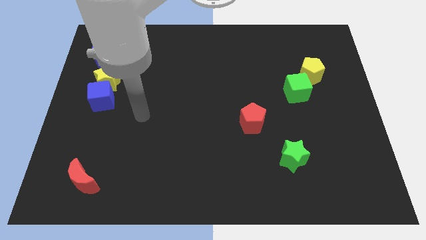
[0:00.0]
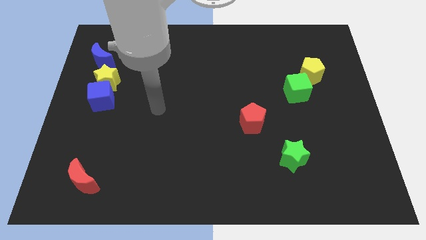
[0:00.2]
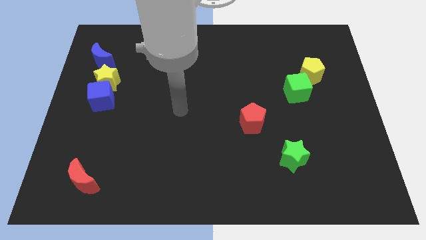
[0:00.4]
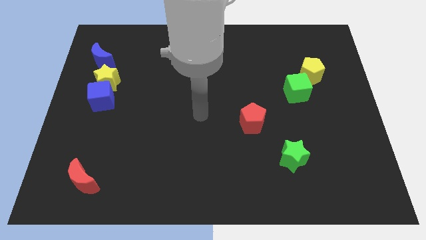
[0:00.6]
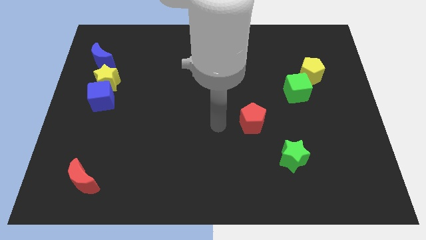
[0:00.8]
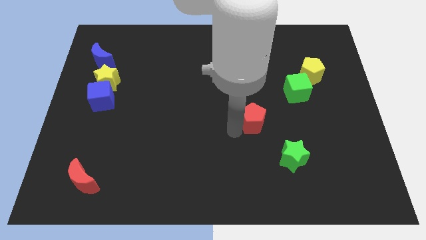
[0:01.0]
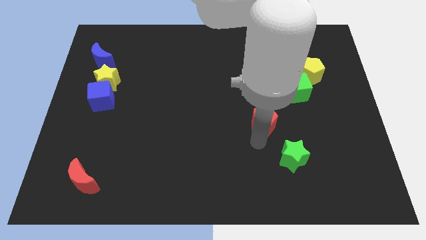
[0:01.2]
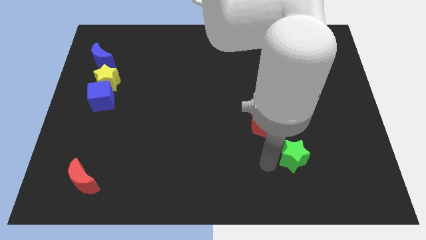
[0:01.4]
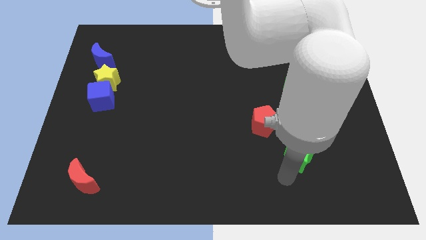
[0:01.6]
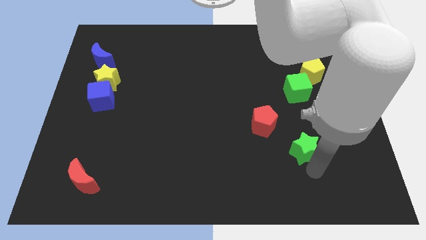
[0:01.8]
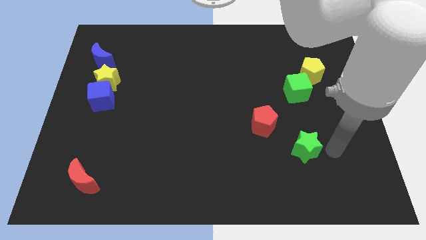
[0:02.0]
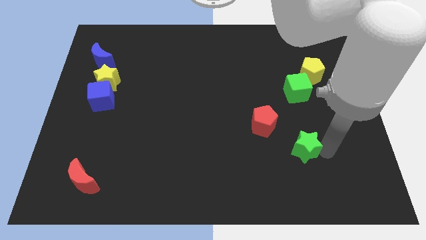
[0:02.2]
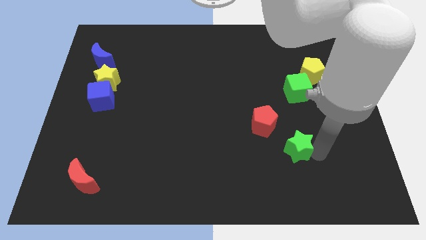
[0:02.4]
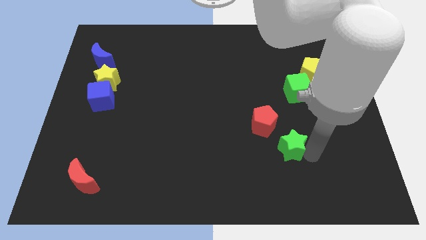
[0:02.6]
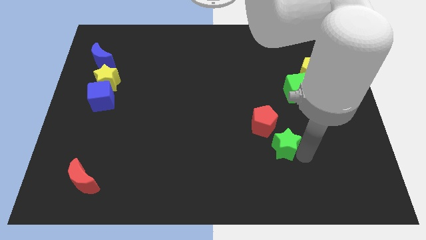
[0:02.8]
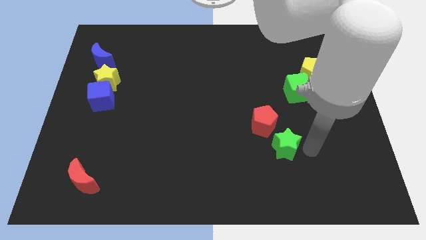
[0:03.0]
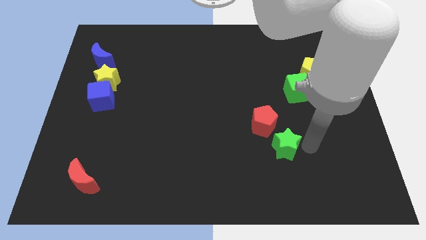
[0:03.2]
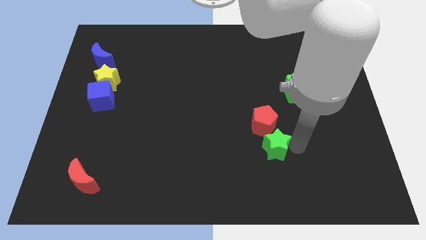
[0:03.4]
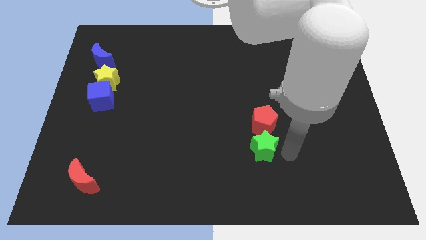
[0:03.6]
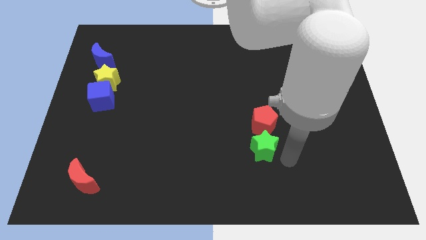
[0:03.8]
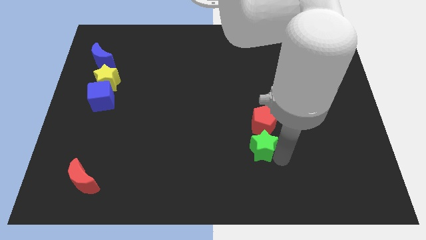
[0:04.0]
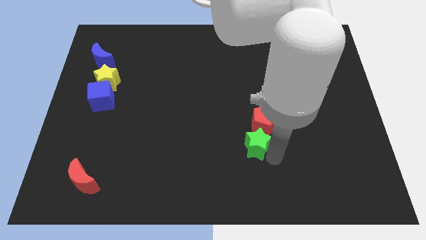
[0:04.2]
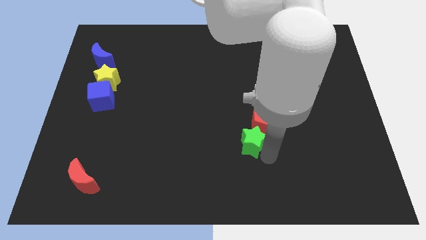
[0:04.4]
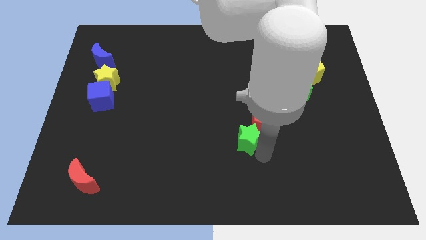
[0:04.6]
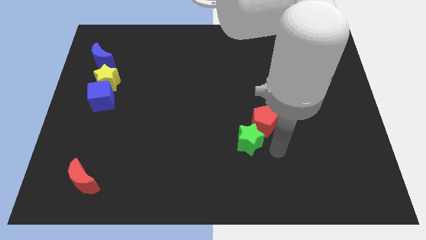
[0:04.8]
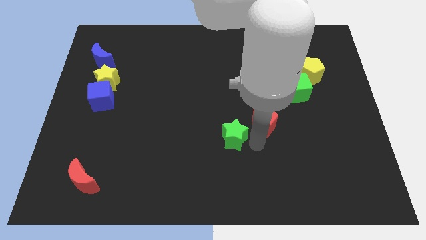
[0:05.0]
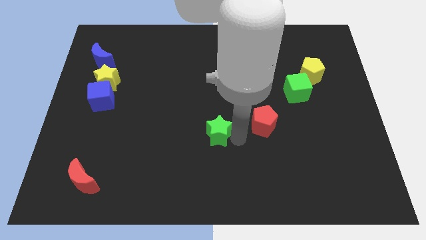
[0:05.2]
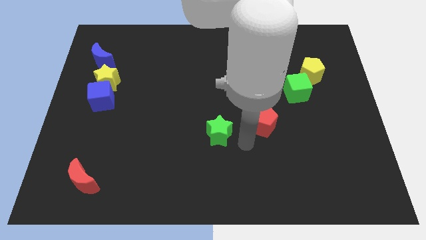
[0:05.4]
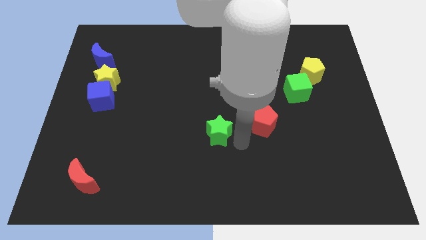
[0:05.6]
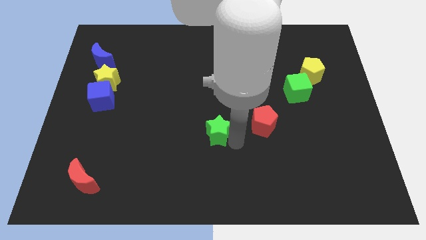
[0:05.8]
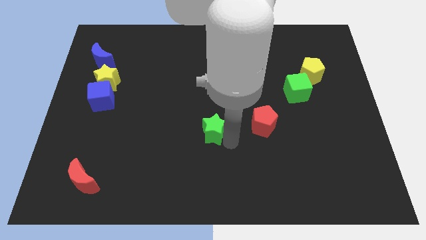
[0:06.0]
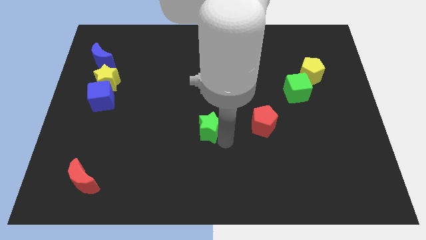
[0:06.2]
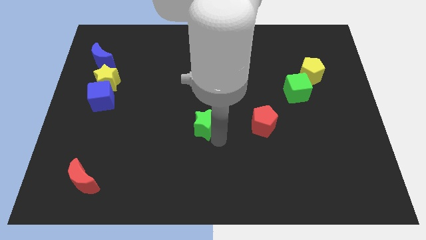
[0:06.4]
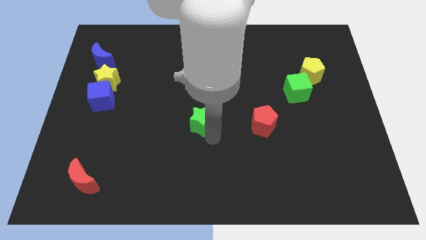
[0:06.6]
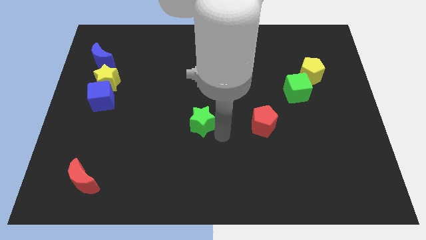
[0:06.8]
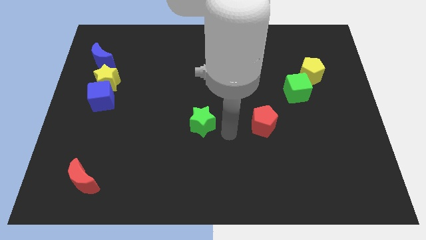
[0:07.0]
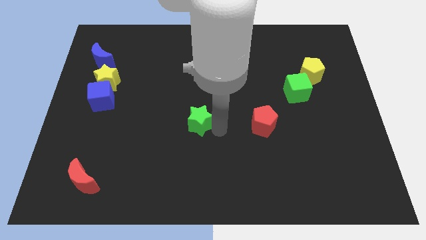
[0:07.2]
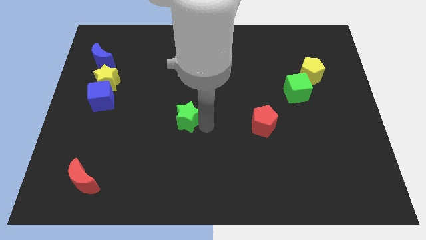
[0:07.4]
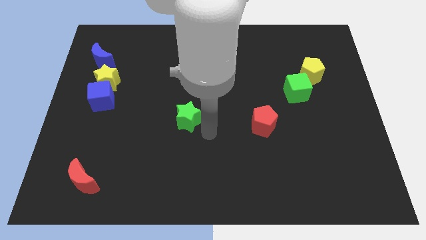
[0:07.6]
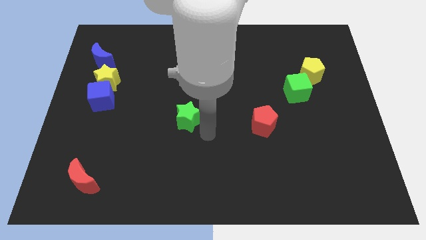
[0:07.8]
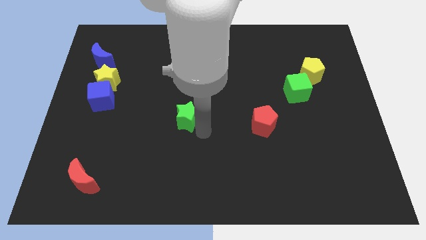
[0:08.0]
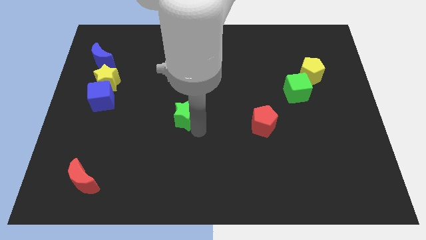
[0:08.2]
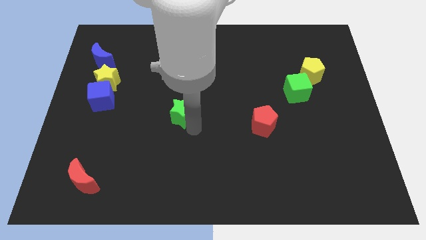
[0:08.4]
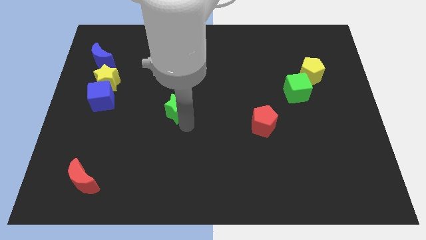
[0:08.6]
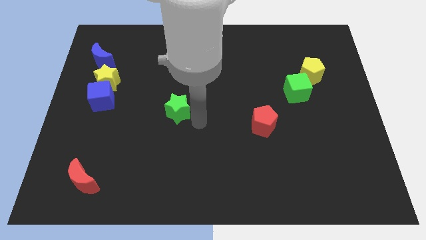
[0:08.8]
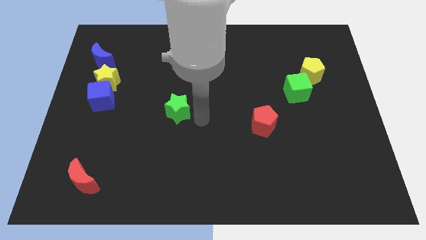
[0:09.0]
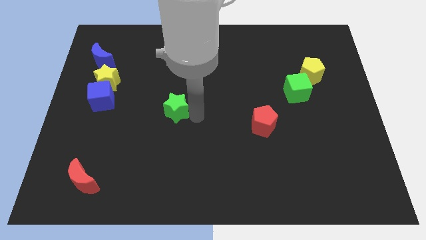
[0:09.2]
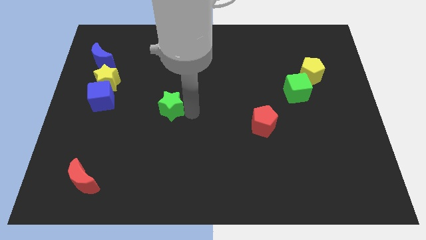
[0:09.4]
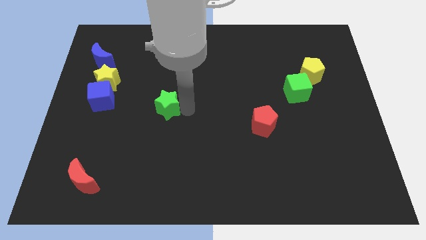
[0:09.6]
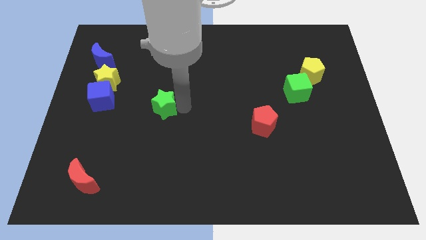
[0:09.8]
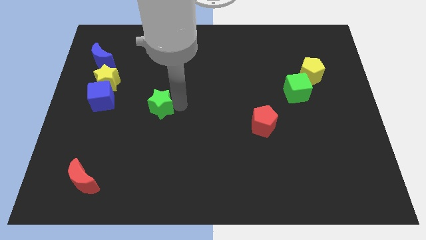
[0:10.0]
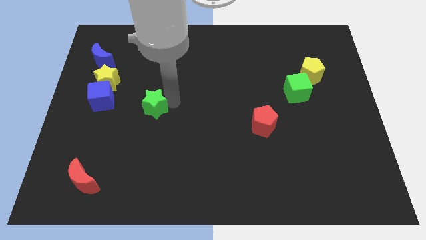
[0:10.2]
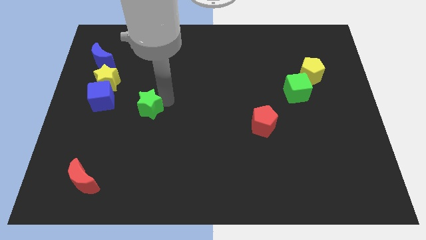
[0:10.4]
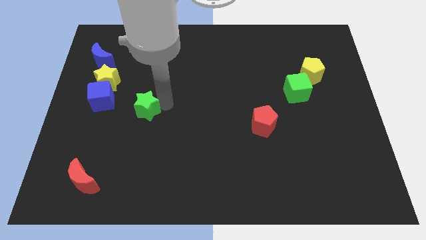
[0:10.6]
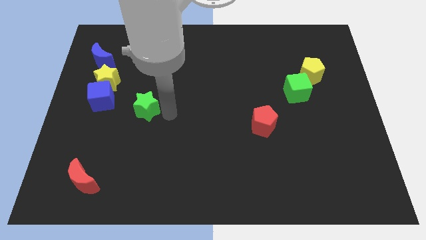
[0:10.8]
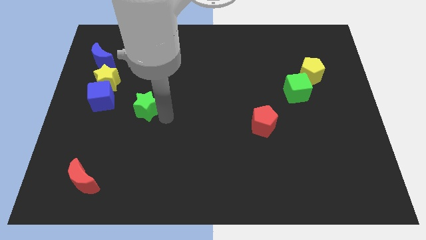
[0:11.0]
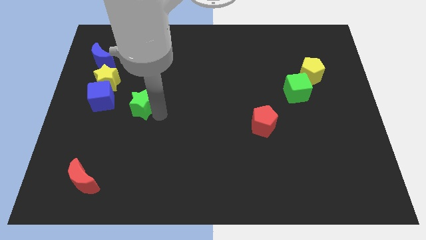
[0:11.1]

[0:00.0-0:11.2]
push the green star to the bottom right of the yellow star

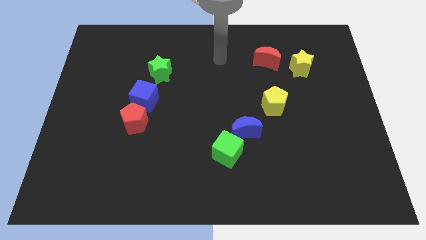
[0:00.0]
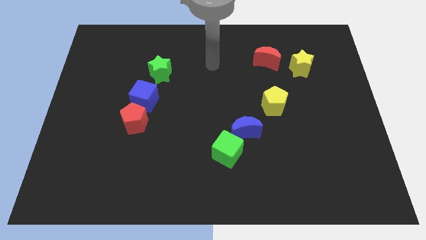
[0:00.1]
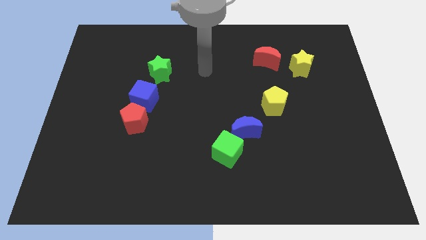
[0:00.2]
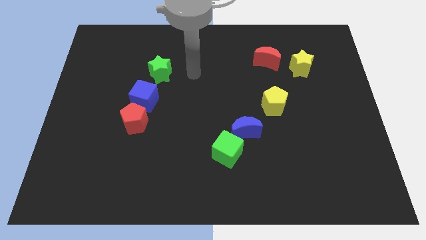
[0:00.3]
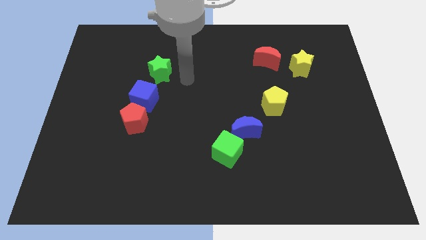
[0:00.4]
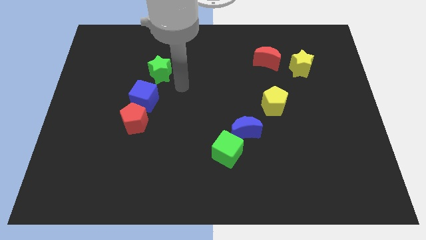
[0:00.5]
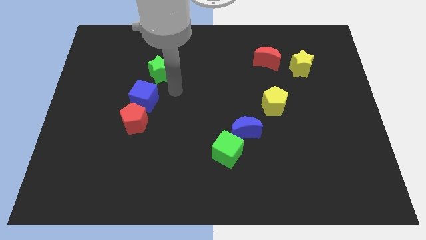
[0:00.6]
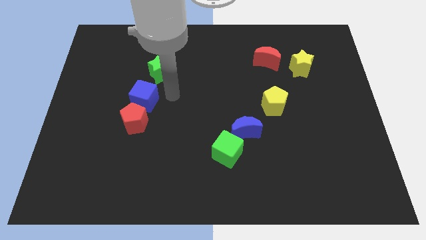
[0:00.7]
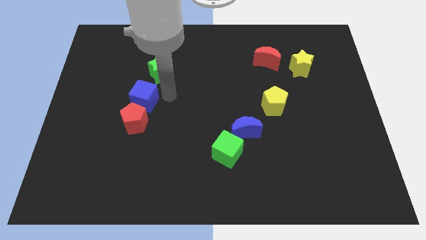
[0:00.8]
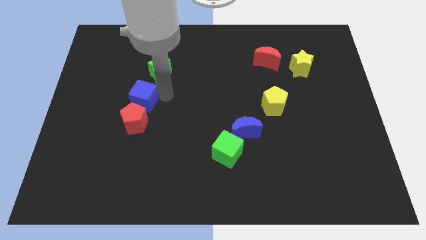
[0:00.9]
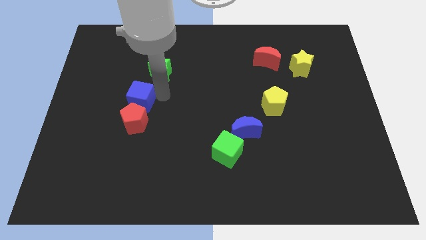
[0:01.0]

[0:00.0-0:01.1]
move the blue cube to the top left of the red pentagon
